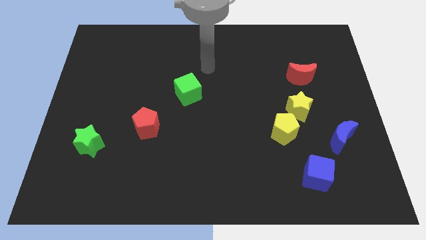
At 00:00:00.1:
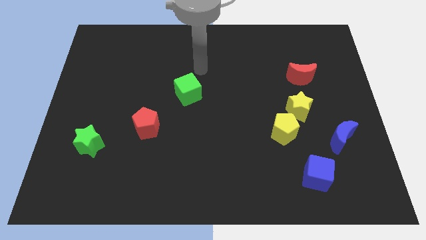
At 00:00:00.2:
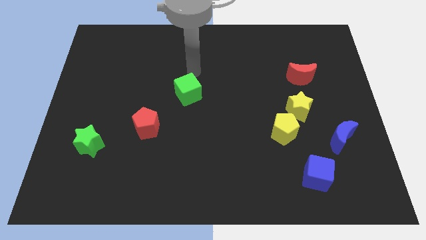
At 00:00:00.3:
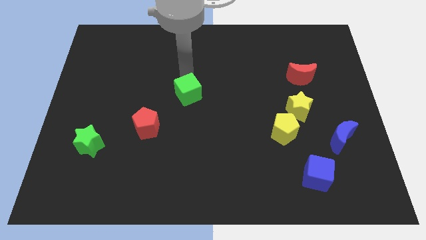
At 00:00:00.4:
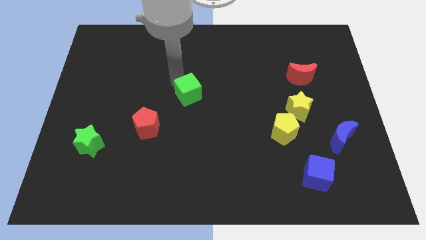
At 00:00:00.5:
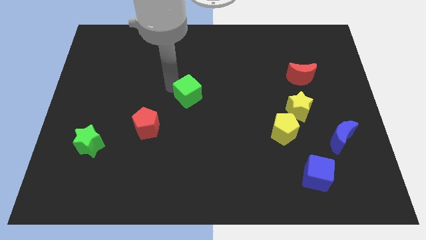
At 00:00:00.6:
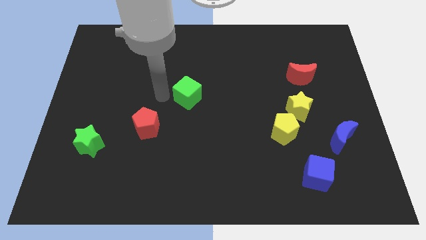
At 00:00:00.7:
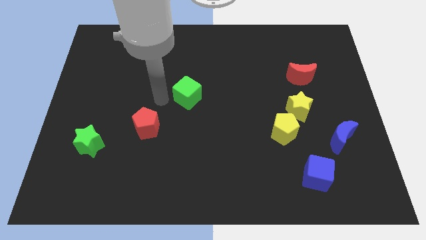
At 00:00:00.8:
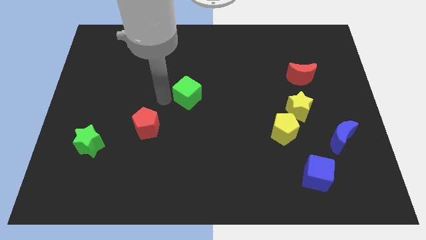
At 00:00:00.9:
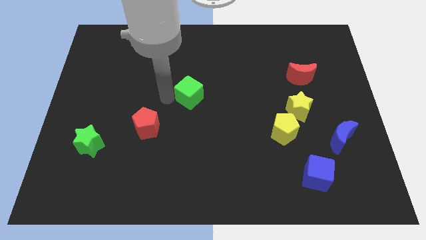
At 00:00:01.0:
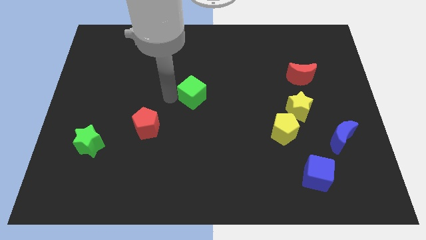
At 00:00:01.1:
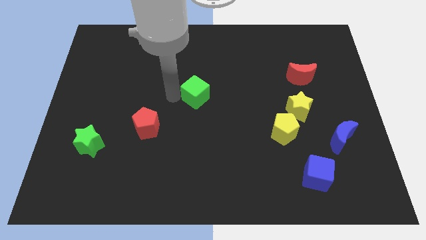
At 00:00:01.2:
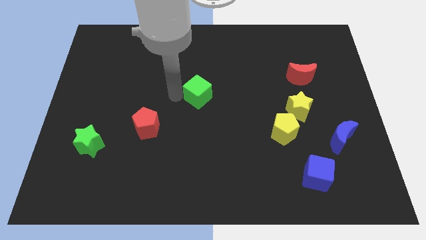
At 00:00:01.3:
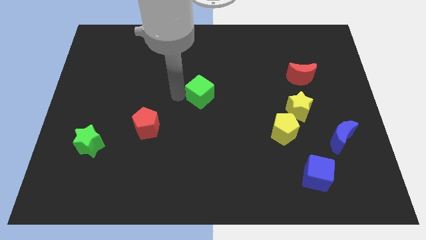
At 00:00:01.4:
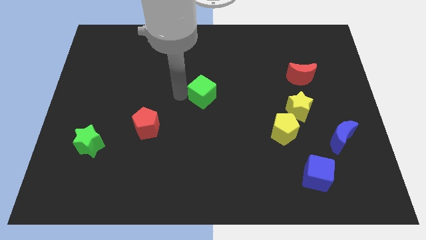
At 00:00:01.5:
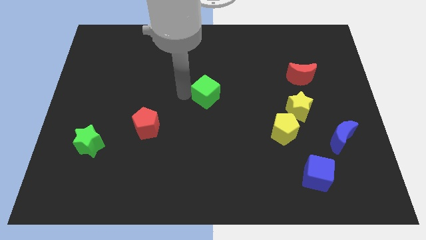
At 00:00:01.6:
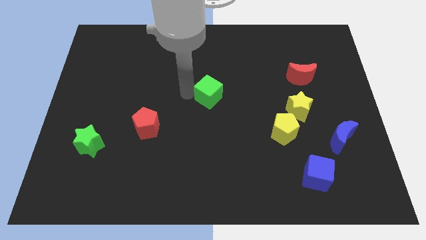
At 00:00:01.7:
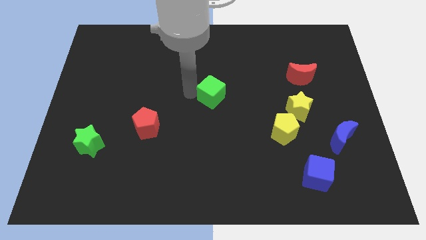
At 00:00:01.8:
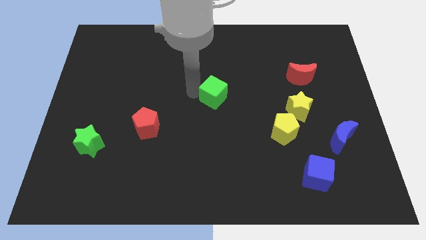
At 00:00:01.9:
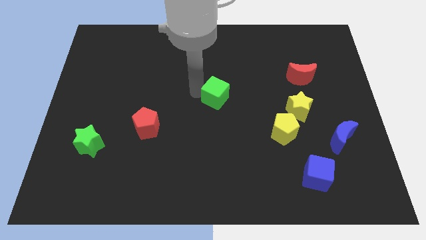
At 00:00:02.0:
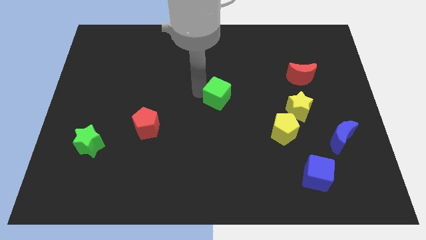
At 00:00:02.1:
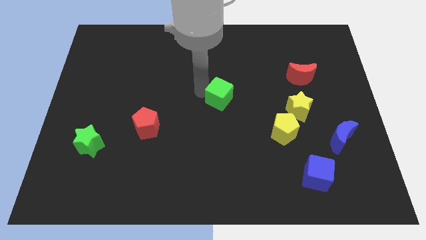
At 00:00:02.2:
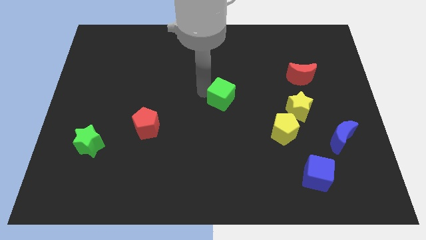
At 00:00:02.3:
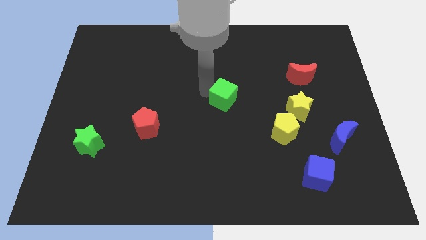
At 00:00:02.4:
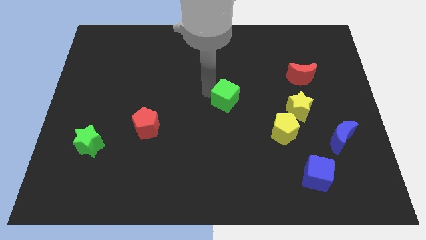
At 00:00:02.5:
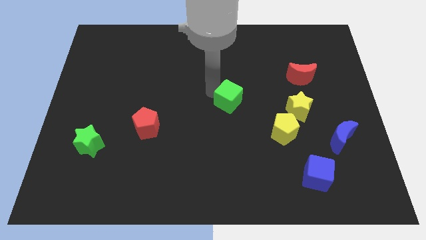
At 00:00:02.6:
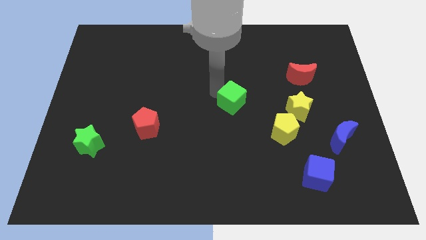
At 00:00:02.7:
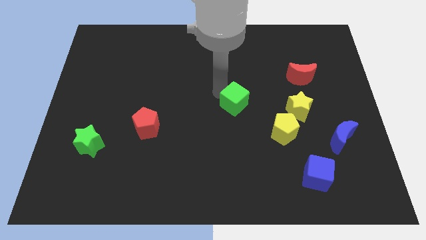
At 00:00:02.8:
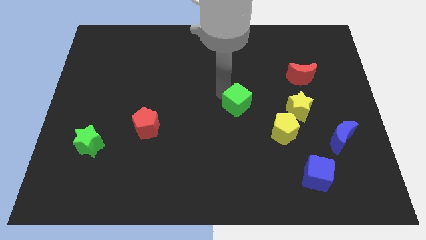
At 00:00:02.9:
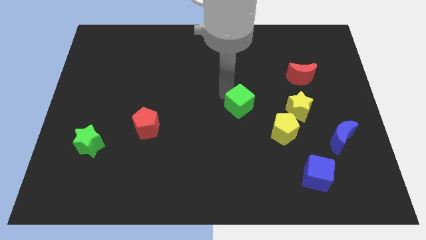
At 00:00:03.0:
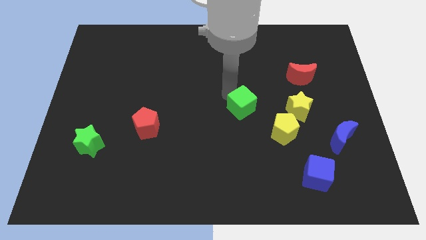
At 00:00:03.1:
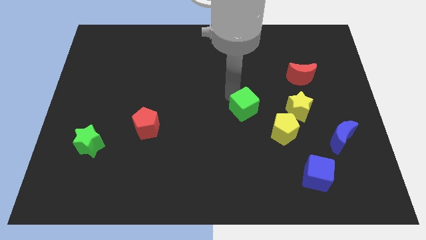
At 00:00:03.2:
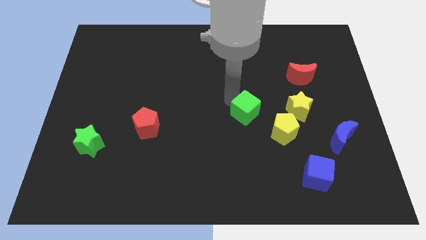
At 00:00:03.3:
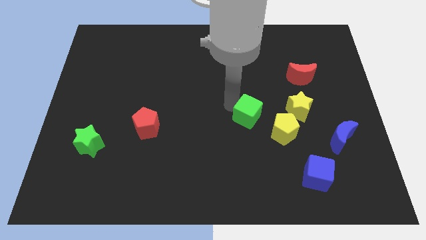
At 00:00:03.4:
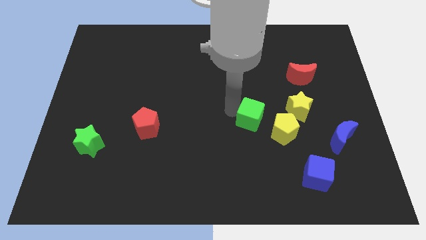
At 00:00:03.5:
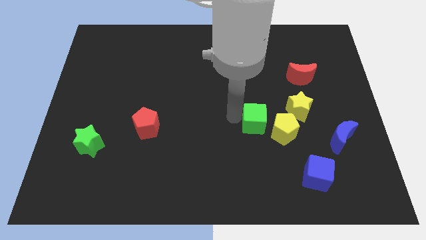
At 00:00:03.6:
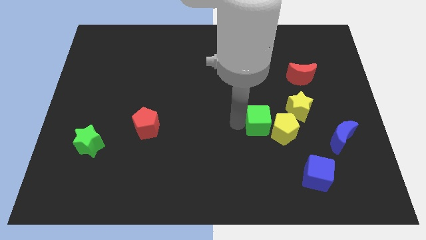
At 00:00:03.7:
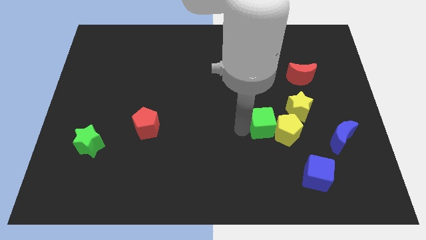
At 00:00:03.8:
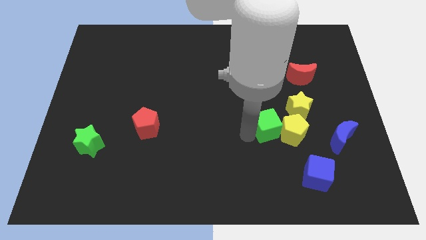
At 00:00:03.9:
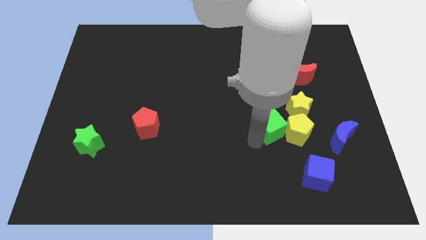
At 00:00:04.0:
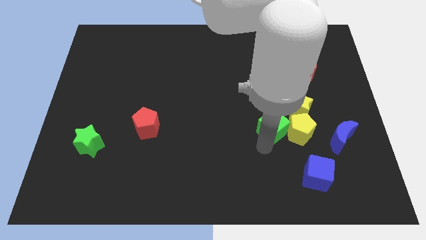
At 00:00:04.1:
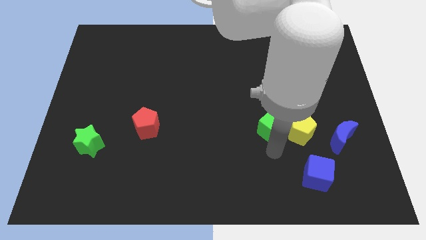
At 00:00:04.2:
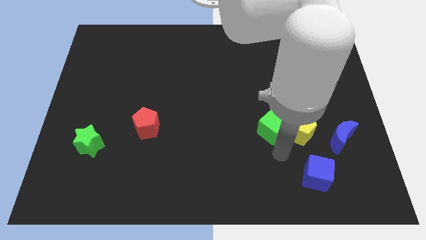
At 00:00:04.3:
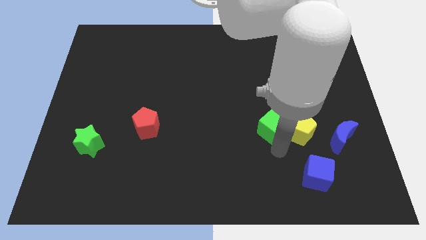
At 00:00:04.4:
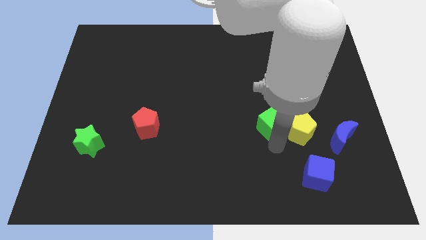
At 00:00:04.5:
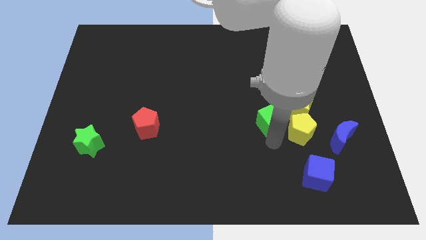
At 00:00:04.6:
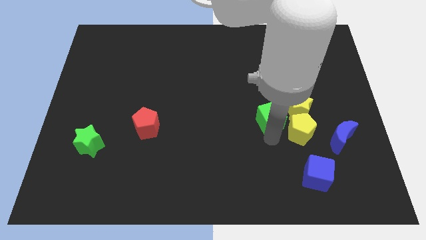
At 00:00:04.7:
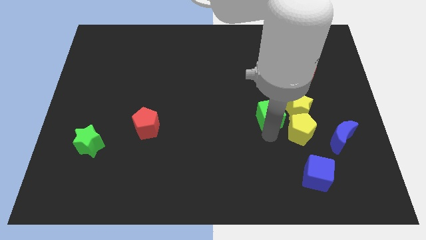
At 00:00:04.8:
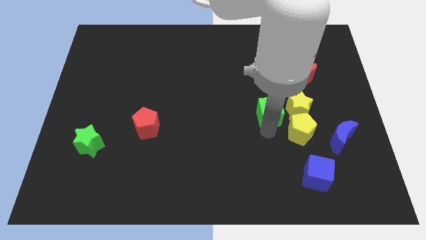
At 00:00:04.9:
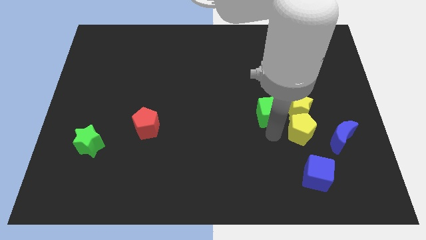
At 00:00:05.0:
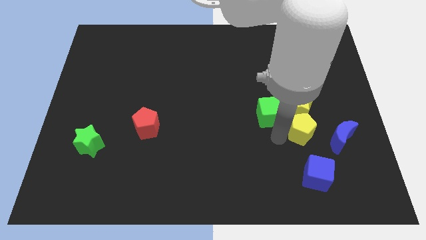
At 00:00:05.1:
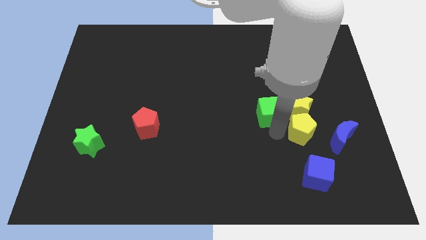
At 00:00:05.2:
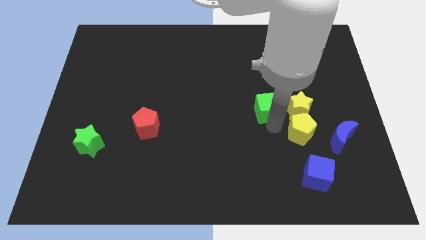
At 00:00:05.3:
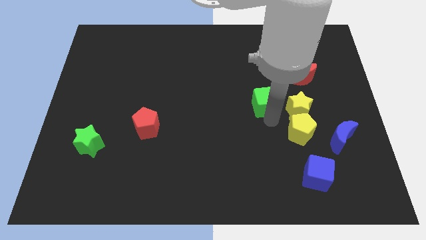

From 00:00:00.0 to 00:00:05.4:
push the green cube to the top left of the yellow star
